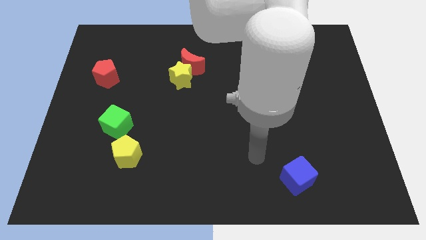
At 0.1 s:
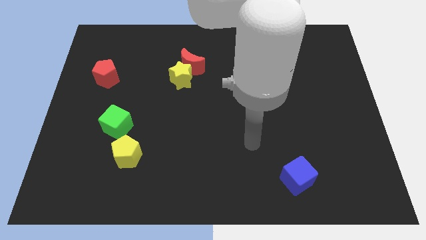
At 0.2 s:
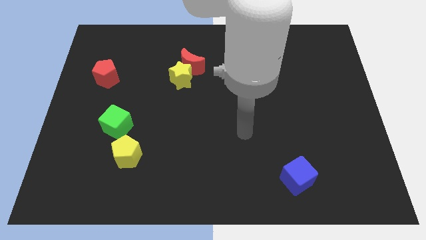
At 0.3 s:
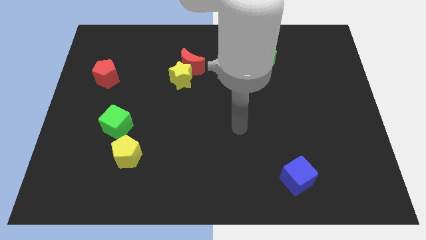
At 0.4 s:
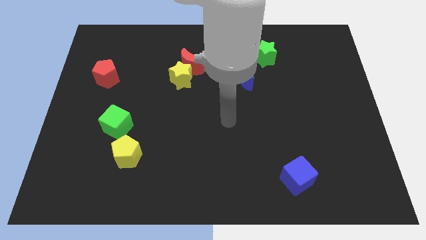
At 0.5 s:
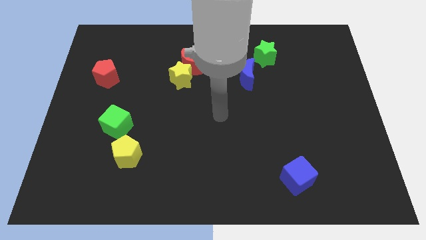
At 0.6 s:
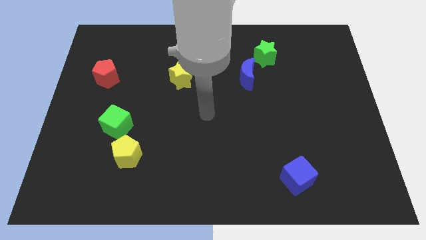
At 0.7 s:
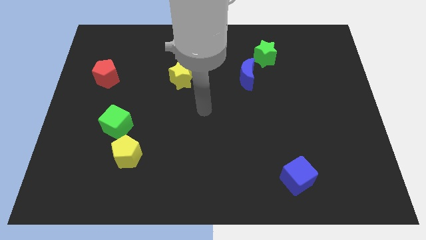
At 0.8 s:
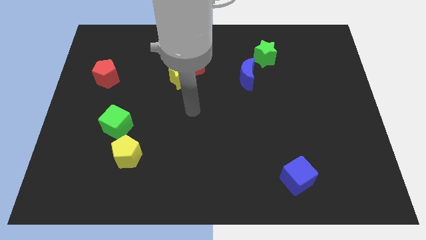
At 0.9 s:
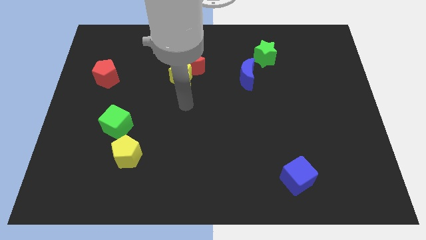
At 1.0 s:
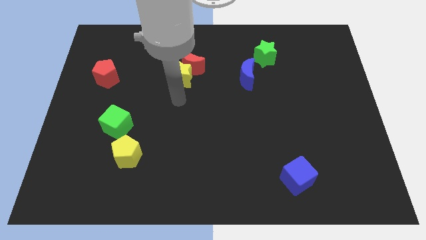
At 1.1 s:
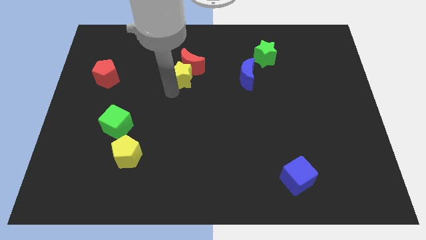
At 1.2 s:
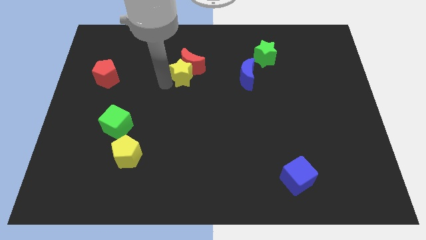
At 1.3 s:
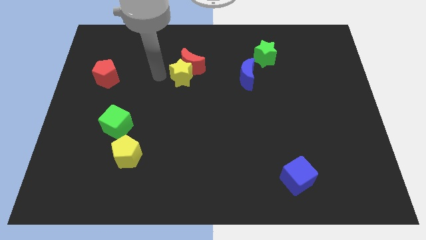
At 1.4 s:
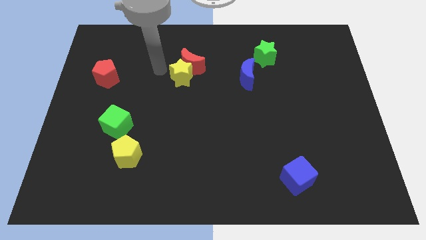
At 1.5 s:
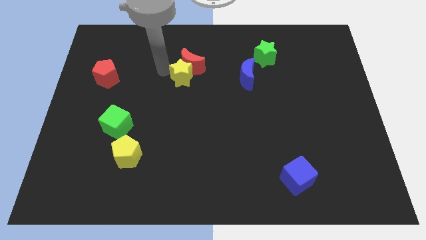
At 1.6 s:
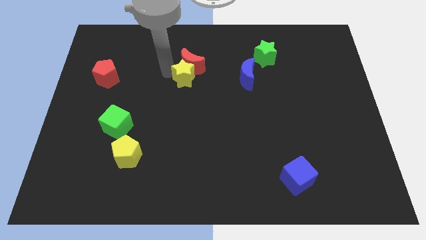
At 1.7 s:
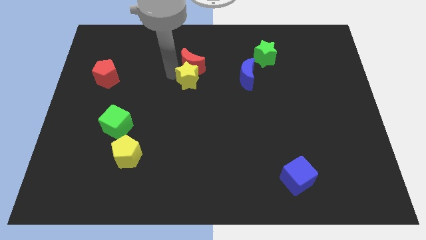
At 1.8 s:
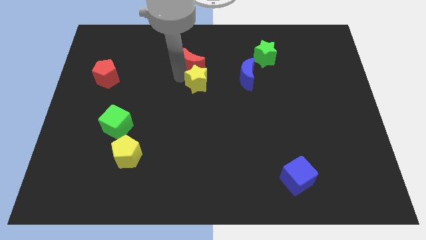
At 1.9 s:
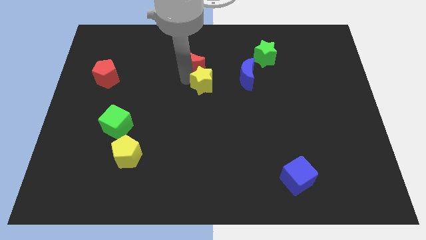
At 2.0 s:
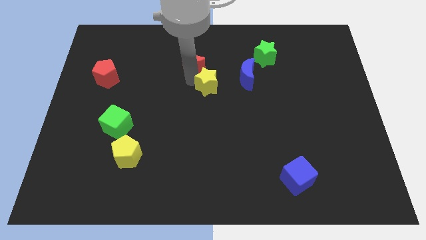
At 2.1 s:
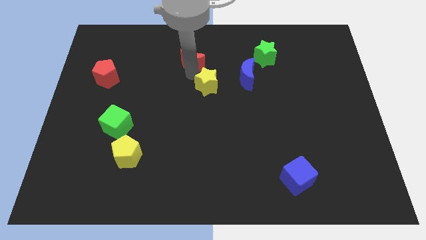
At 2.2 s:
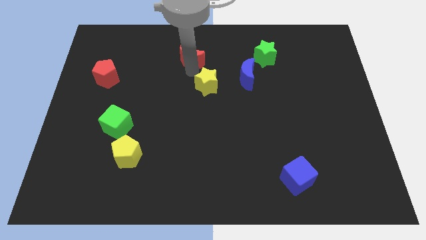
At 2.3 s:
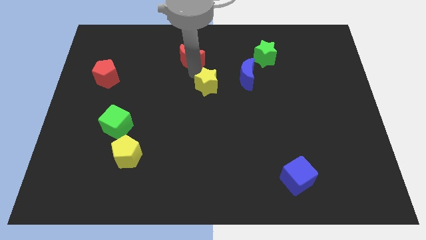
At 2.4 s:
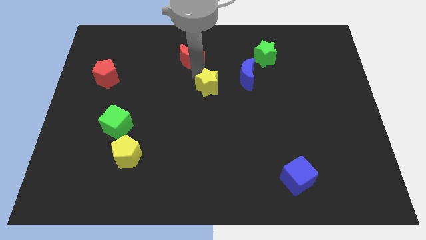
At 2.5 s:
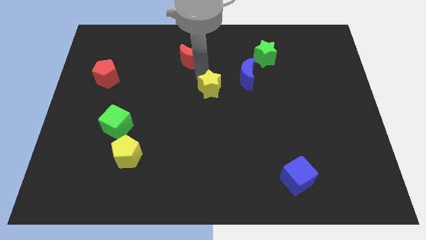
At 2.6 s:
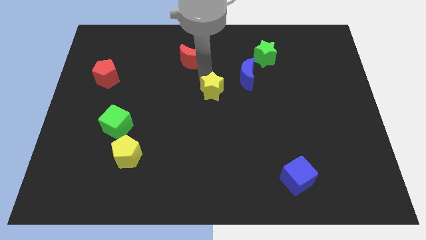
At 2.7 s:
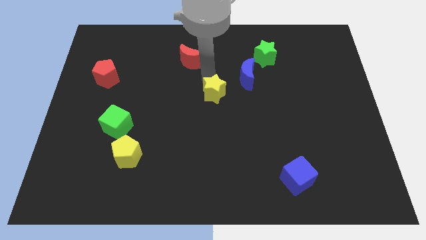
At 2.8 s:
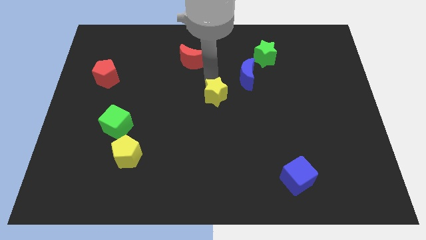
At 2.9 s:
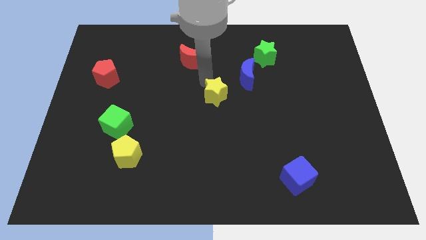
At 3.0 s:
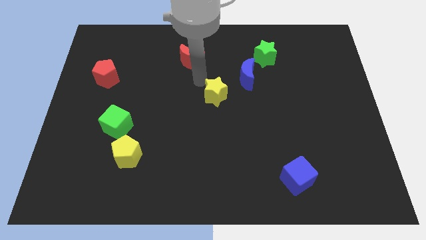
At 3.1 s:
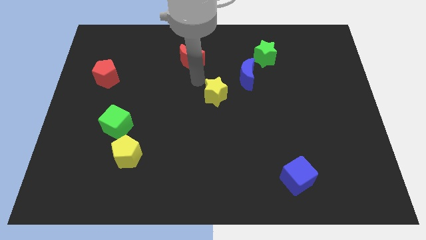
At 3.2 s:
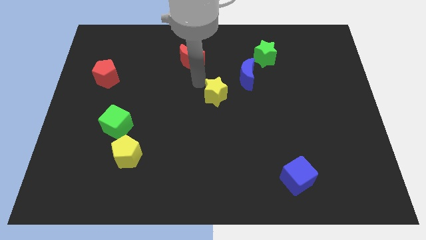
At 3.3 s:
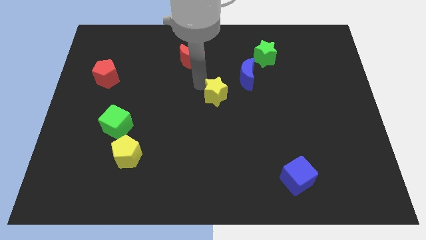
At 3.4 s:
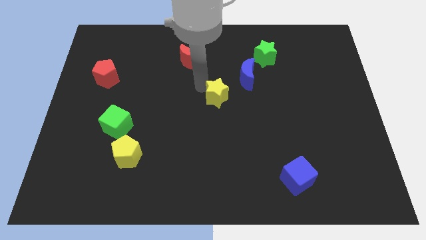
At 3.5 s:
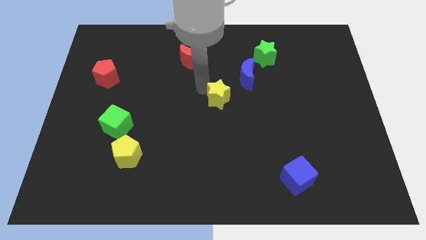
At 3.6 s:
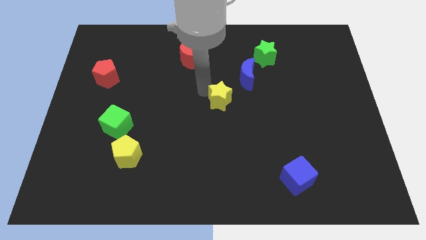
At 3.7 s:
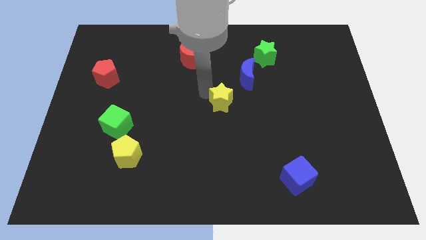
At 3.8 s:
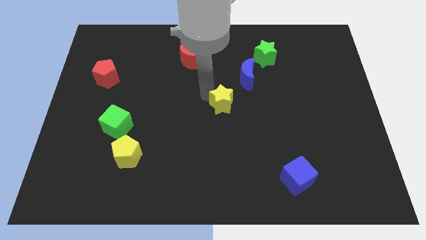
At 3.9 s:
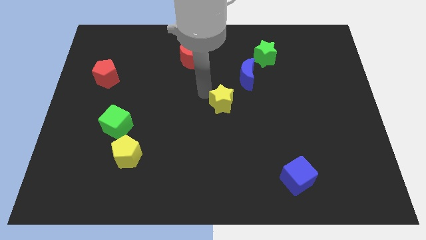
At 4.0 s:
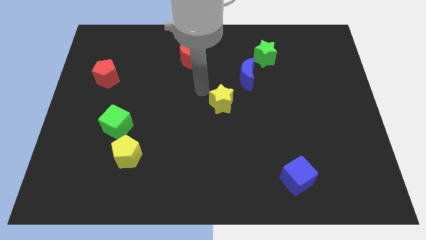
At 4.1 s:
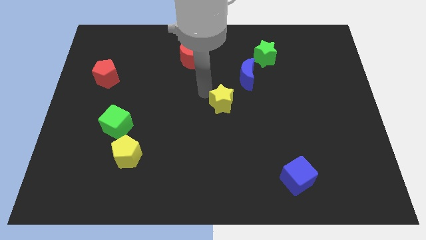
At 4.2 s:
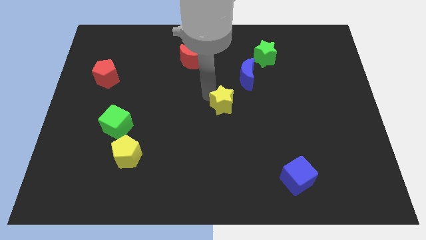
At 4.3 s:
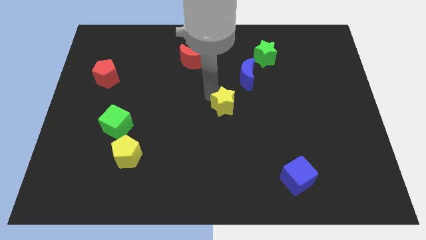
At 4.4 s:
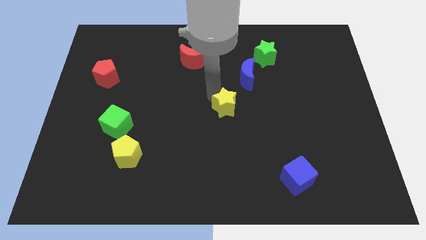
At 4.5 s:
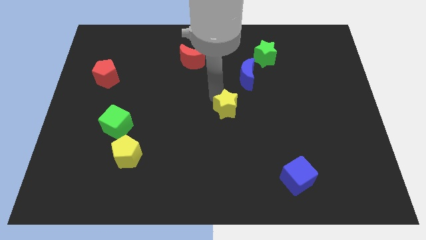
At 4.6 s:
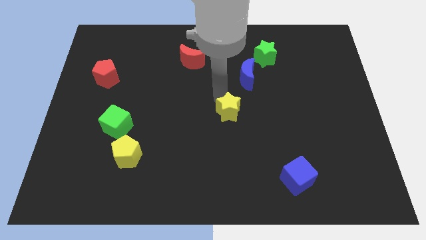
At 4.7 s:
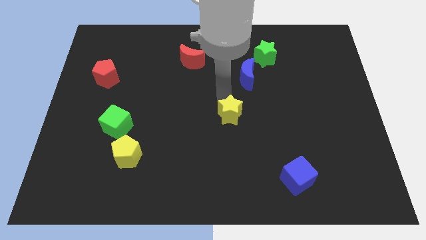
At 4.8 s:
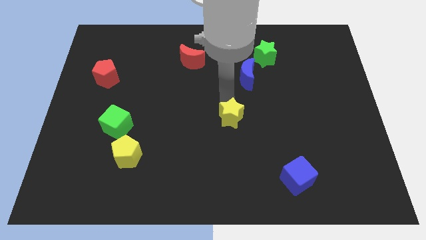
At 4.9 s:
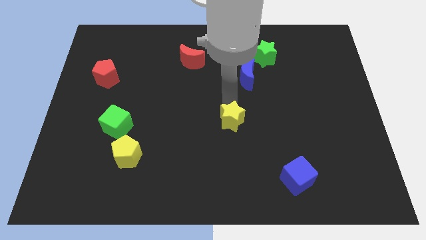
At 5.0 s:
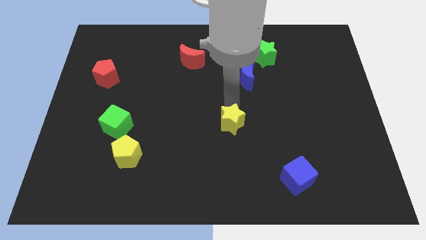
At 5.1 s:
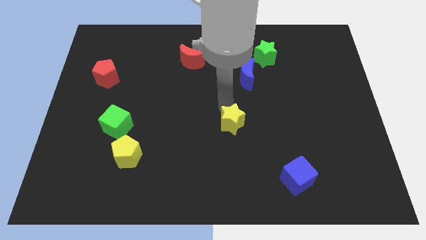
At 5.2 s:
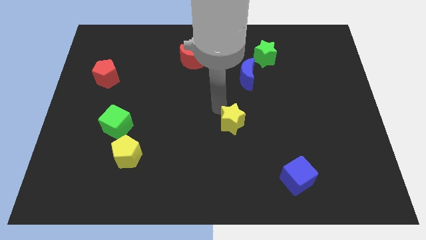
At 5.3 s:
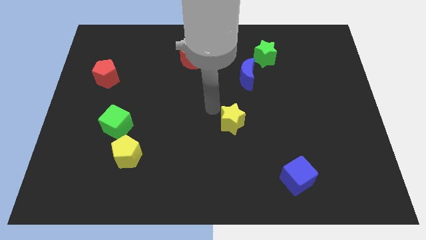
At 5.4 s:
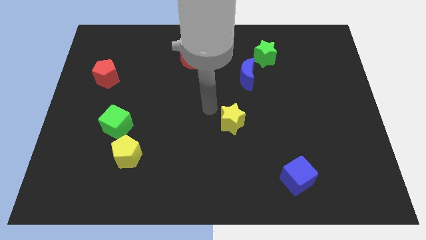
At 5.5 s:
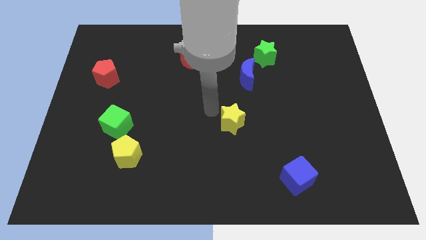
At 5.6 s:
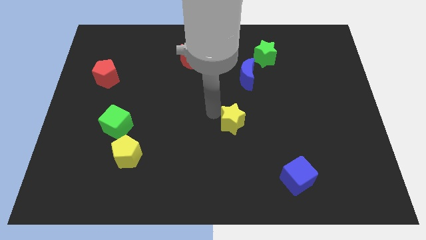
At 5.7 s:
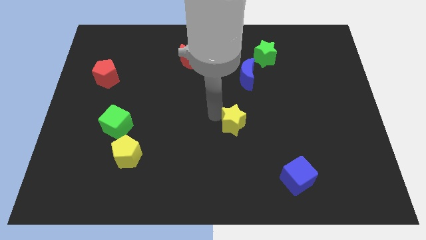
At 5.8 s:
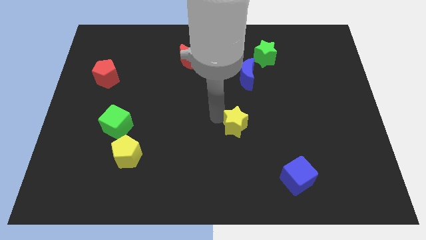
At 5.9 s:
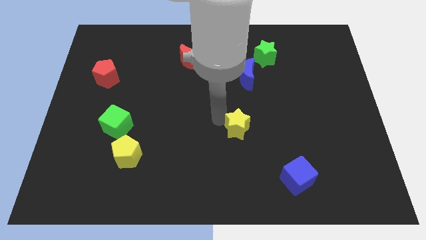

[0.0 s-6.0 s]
slide the yellow star downwards and then right

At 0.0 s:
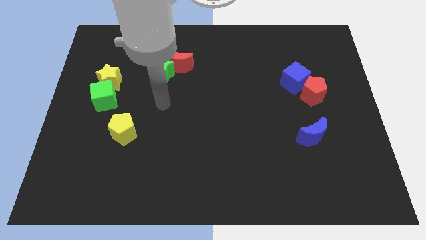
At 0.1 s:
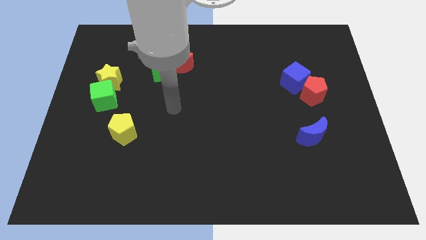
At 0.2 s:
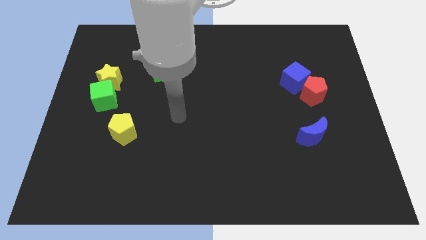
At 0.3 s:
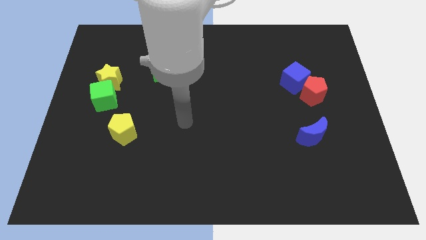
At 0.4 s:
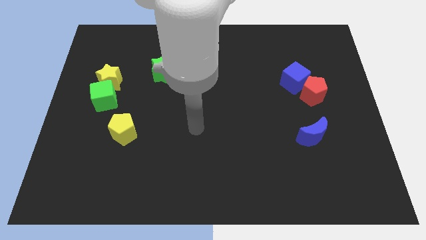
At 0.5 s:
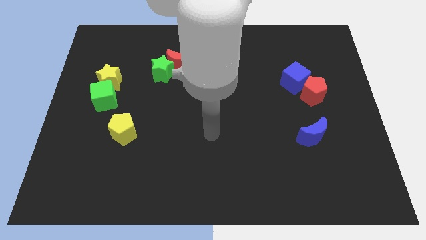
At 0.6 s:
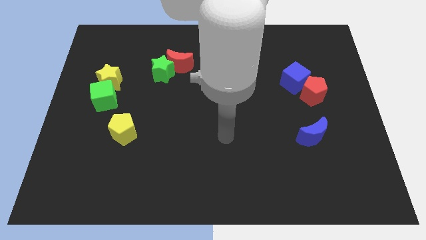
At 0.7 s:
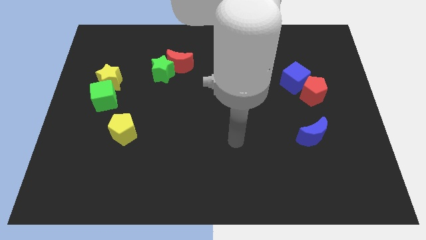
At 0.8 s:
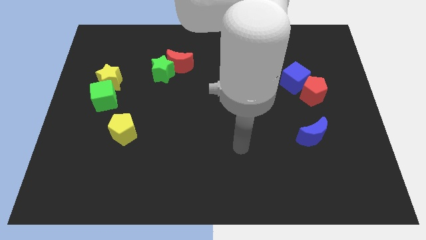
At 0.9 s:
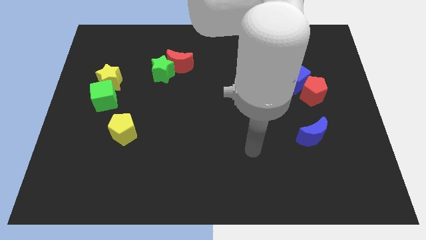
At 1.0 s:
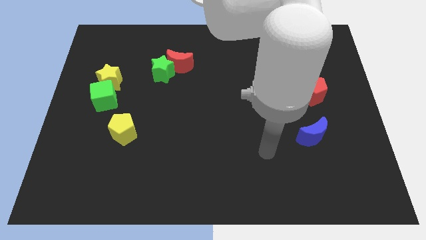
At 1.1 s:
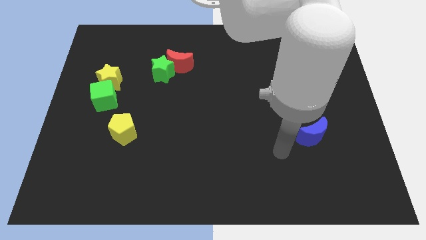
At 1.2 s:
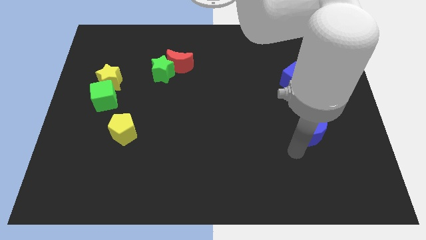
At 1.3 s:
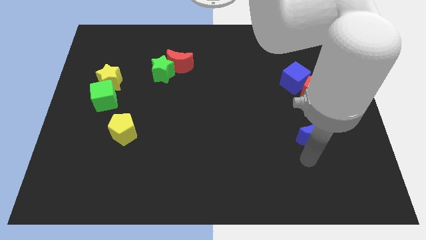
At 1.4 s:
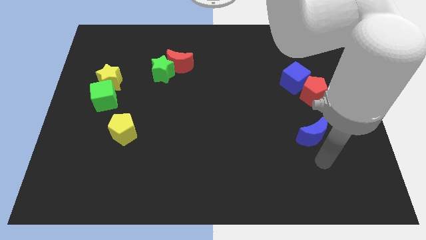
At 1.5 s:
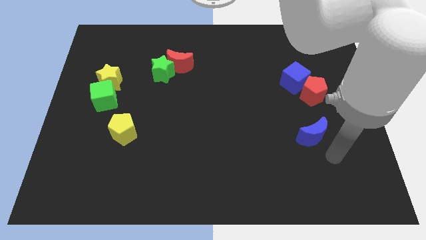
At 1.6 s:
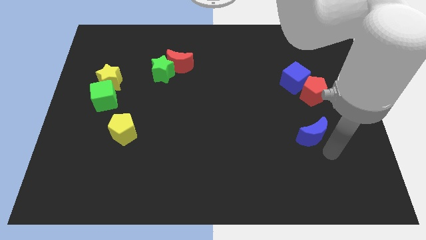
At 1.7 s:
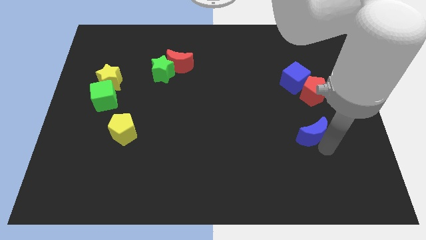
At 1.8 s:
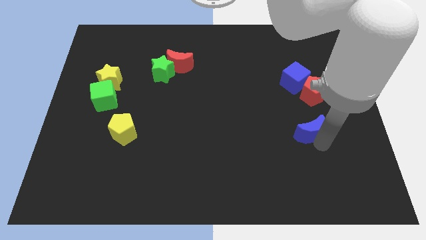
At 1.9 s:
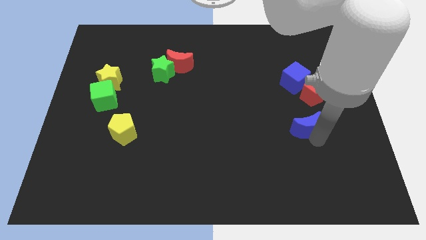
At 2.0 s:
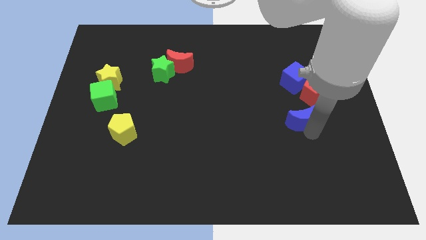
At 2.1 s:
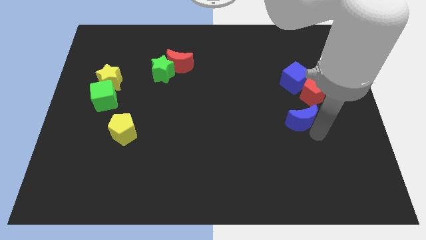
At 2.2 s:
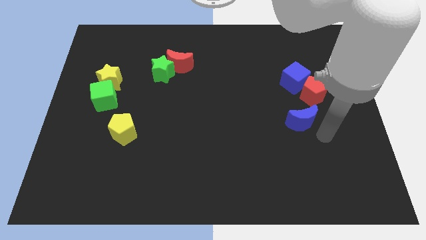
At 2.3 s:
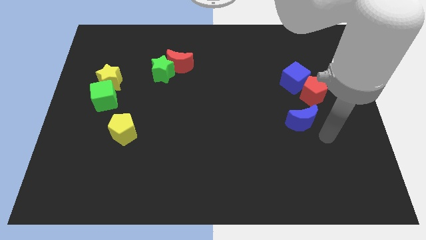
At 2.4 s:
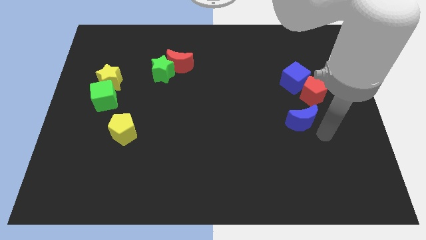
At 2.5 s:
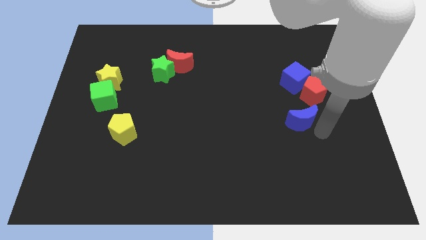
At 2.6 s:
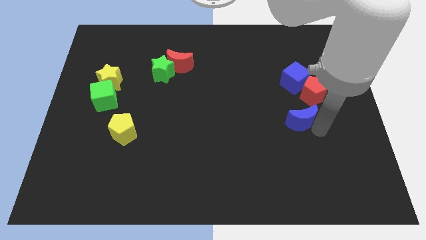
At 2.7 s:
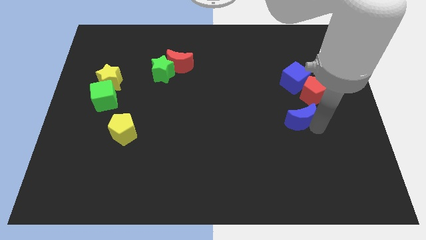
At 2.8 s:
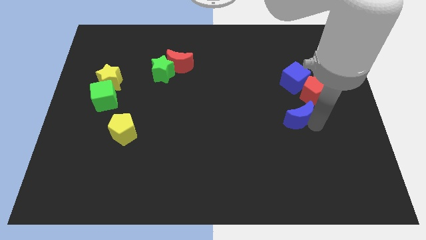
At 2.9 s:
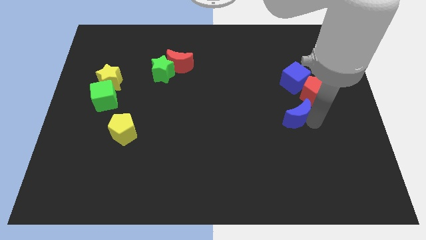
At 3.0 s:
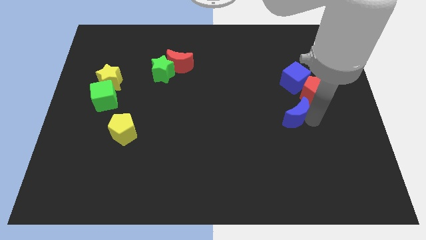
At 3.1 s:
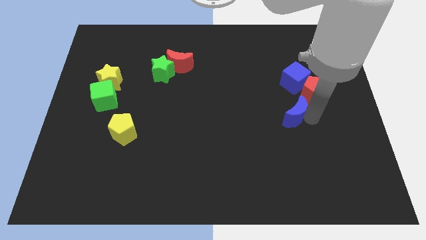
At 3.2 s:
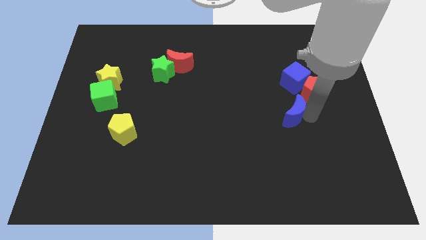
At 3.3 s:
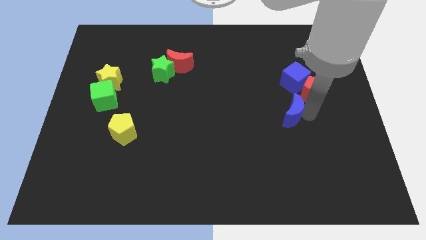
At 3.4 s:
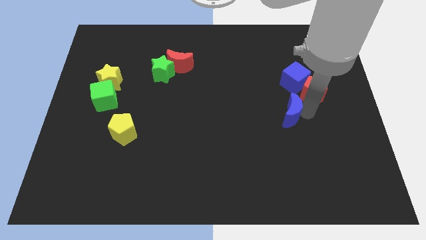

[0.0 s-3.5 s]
push the blue moon a little up and to the left diagonally
